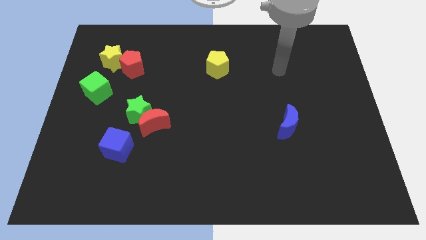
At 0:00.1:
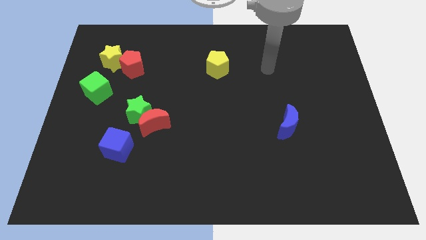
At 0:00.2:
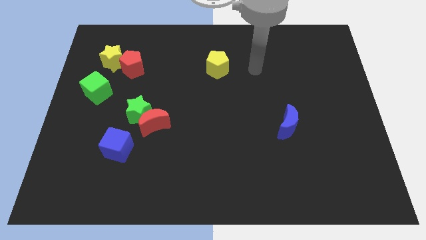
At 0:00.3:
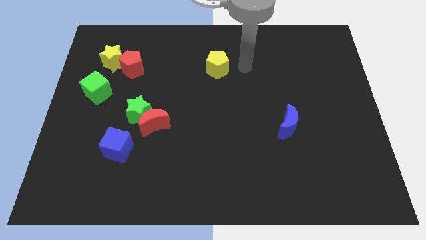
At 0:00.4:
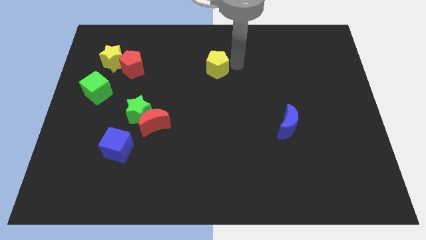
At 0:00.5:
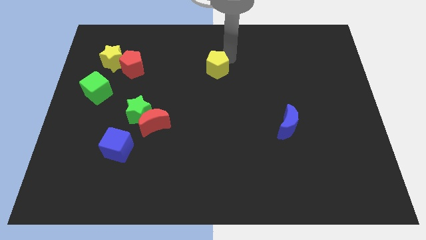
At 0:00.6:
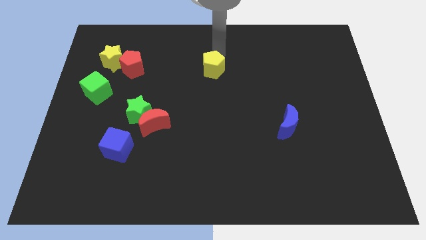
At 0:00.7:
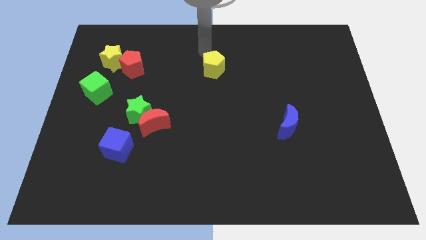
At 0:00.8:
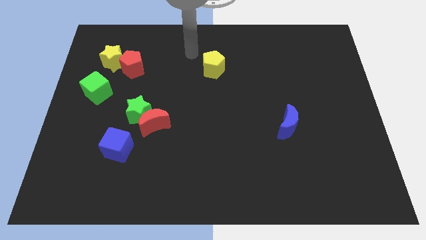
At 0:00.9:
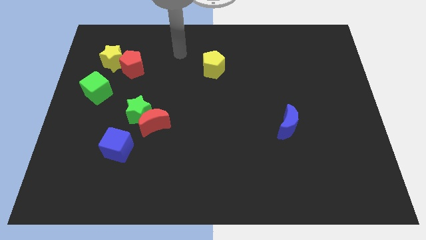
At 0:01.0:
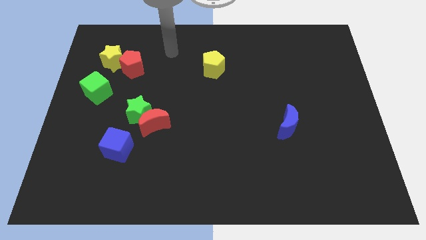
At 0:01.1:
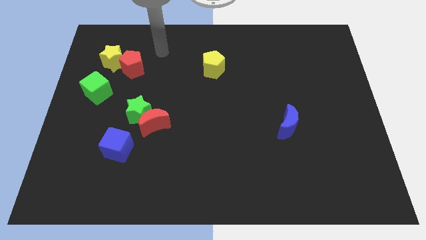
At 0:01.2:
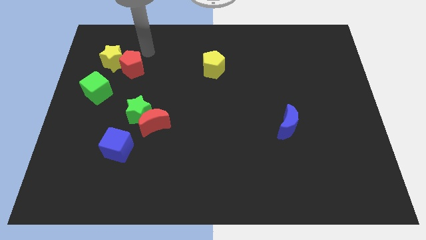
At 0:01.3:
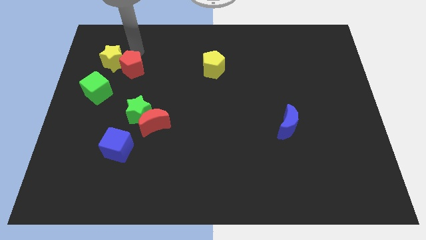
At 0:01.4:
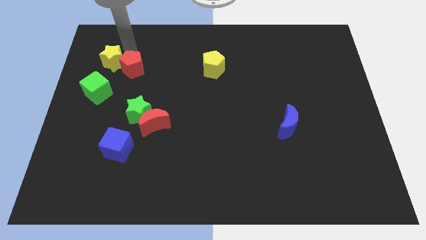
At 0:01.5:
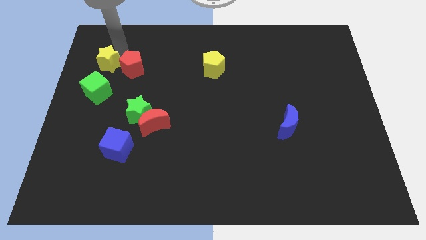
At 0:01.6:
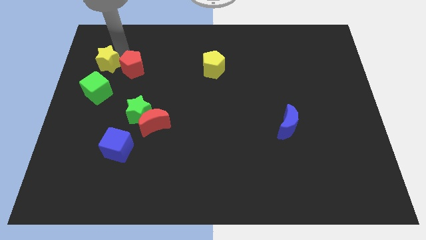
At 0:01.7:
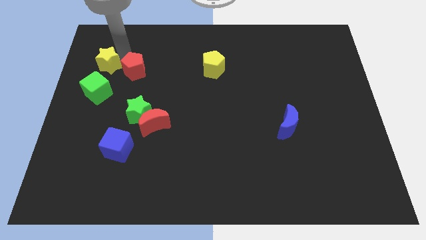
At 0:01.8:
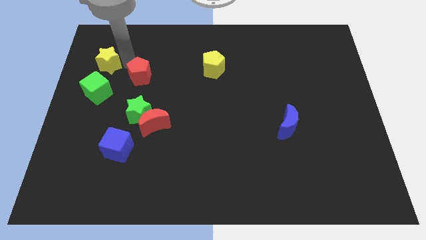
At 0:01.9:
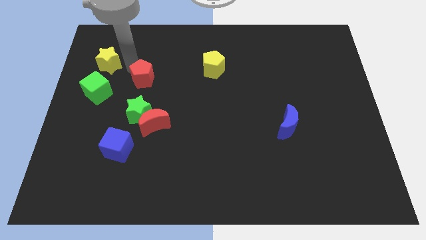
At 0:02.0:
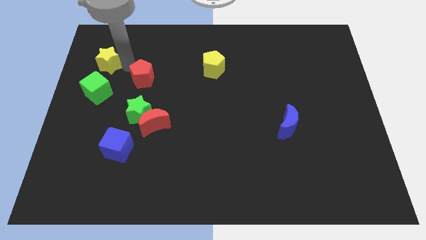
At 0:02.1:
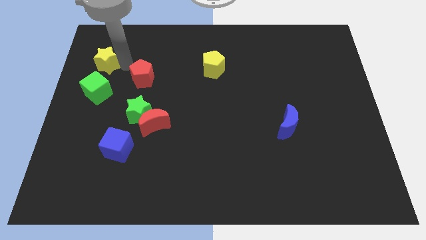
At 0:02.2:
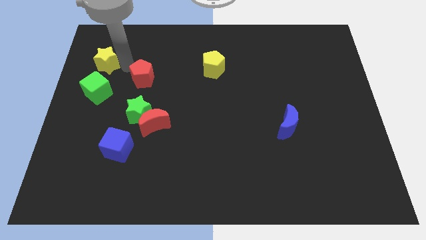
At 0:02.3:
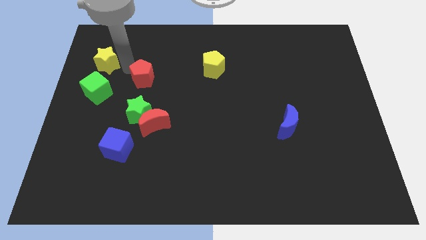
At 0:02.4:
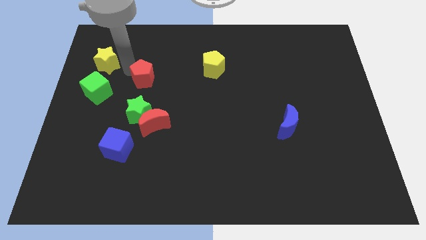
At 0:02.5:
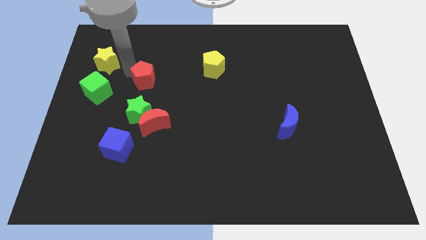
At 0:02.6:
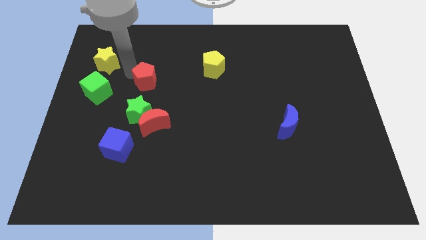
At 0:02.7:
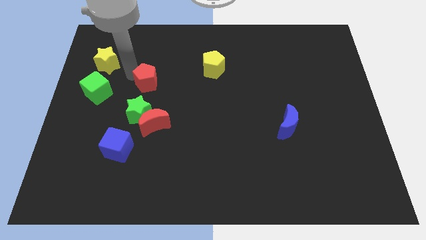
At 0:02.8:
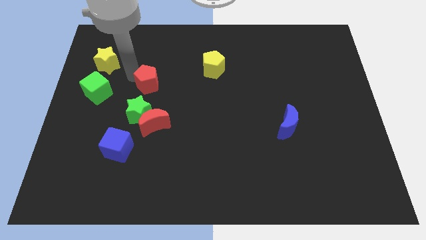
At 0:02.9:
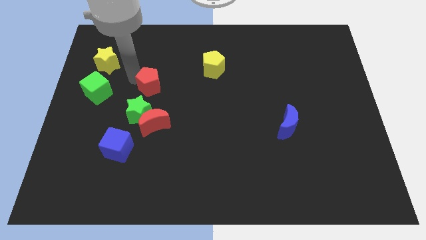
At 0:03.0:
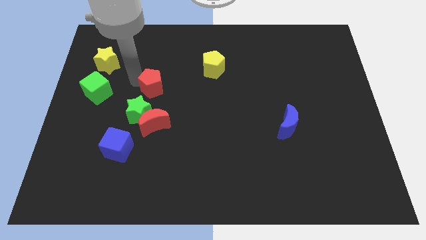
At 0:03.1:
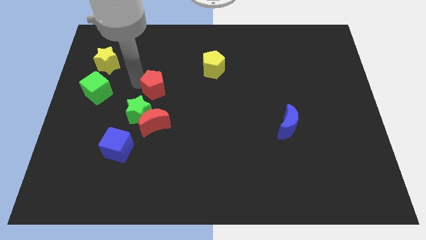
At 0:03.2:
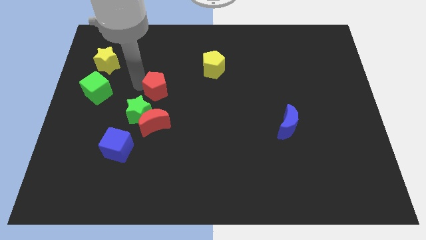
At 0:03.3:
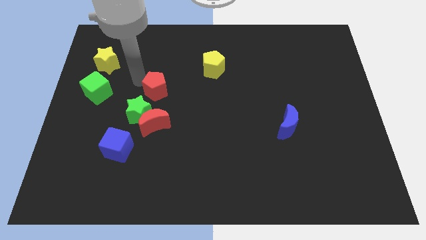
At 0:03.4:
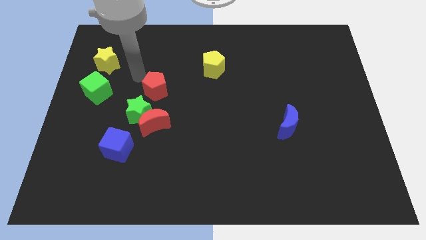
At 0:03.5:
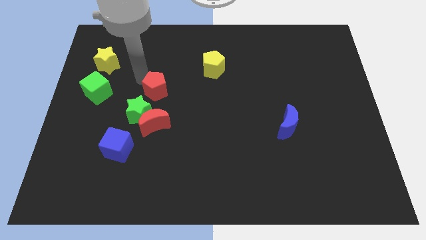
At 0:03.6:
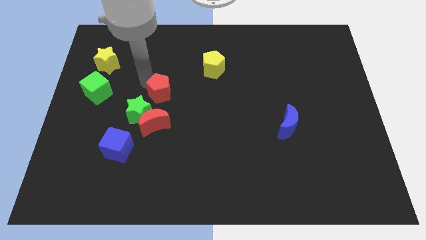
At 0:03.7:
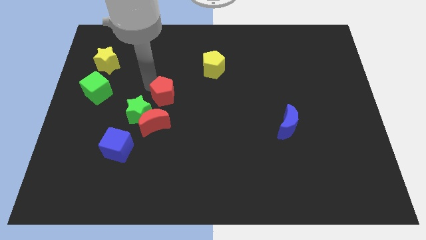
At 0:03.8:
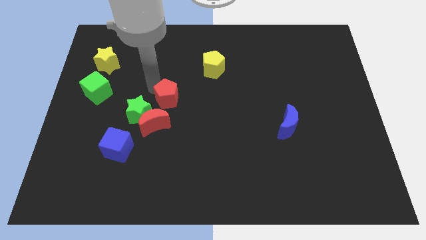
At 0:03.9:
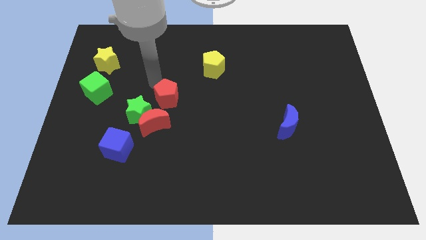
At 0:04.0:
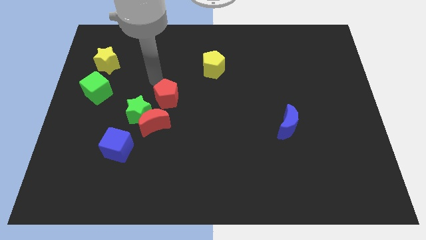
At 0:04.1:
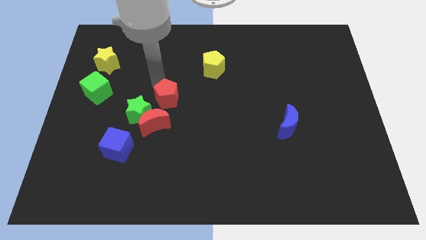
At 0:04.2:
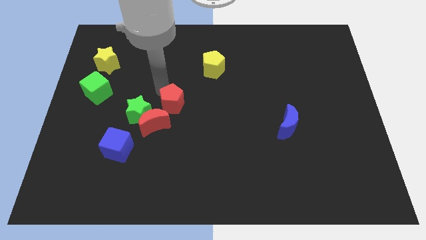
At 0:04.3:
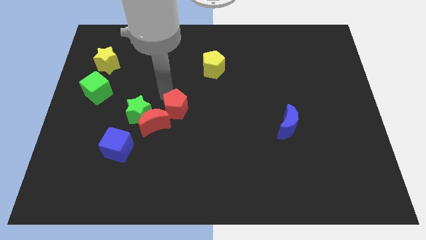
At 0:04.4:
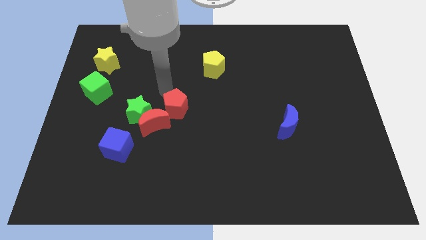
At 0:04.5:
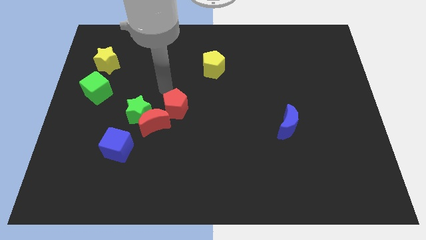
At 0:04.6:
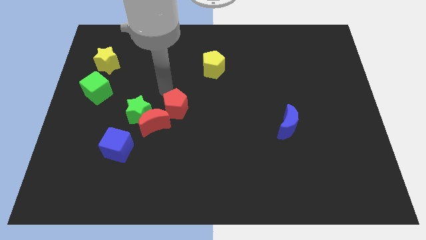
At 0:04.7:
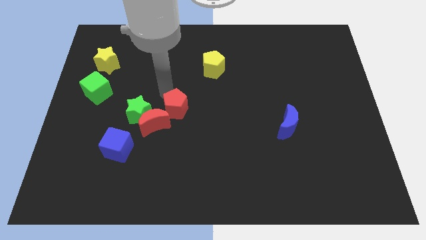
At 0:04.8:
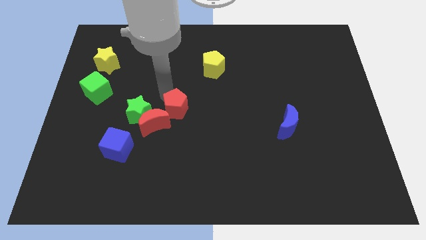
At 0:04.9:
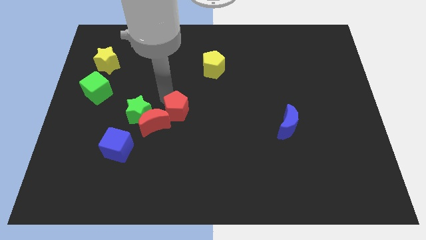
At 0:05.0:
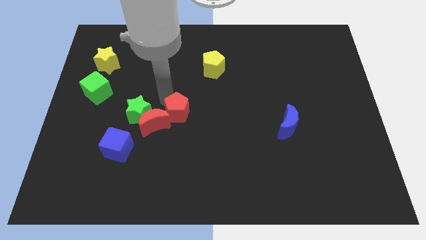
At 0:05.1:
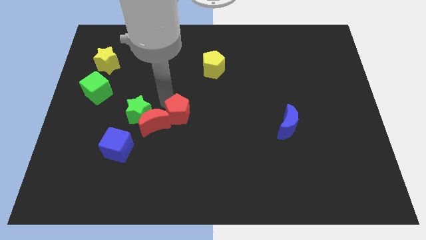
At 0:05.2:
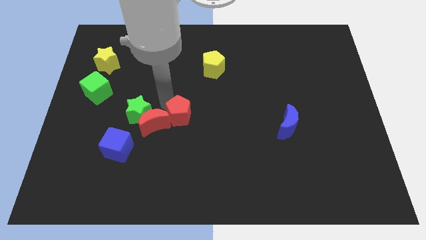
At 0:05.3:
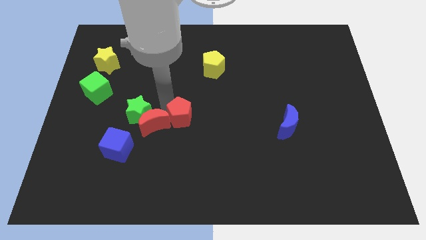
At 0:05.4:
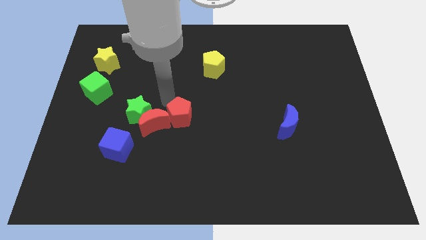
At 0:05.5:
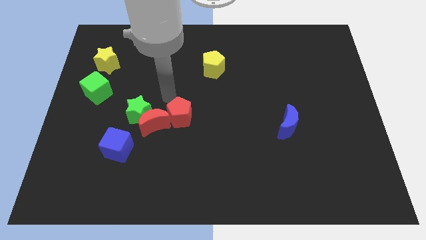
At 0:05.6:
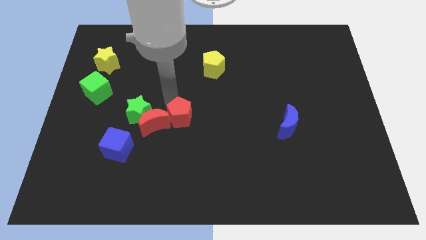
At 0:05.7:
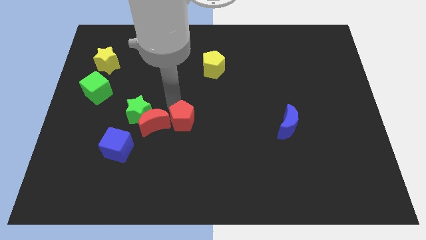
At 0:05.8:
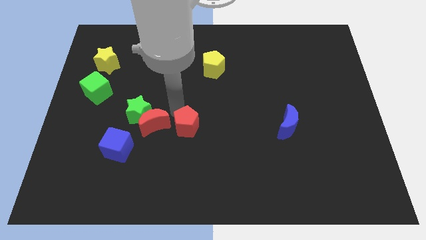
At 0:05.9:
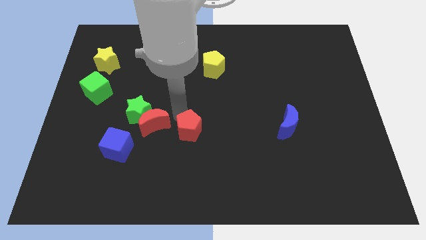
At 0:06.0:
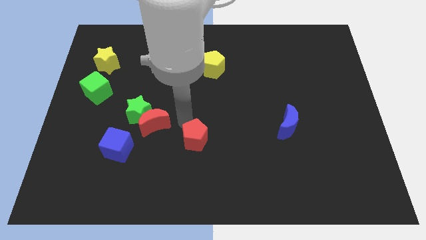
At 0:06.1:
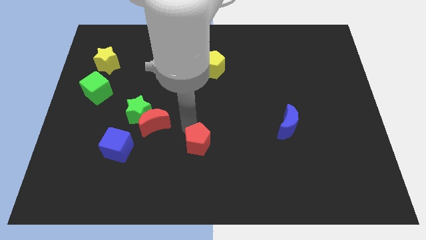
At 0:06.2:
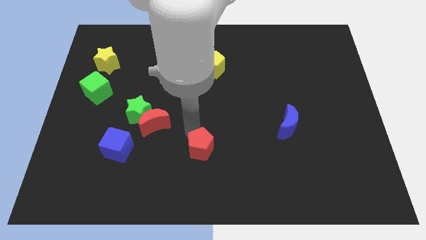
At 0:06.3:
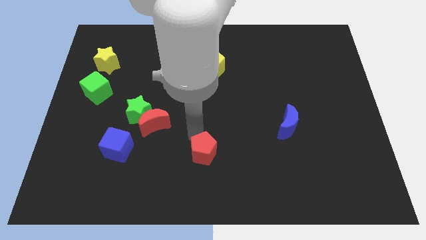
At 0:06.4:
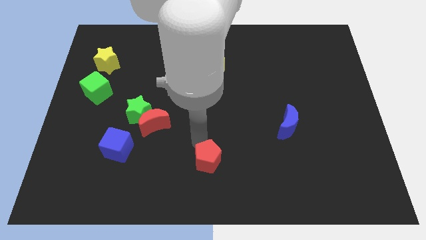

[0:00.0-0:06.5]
move the red pentagon to the bottom

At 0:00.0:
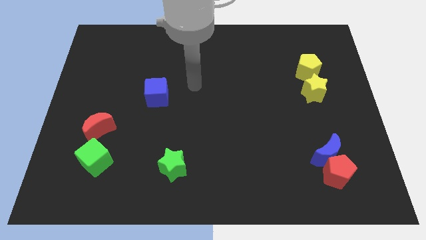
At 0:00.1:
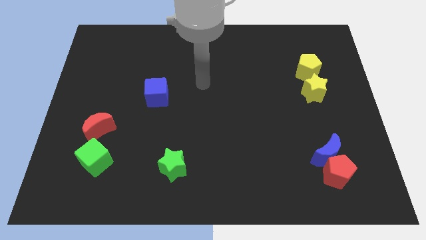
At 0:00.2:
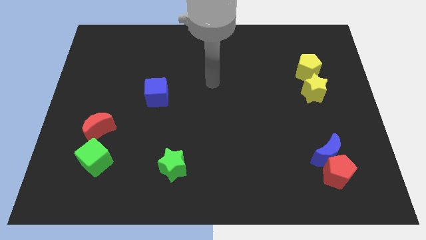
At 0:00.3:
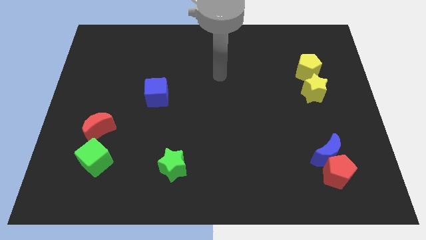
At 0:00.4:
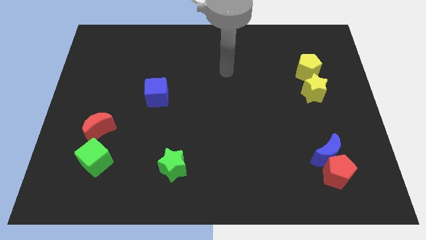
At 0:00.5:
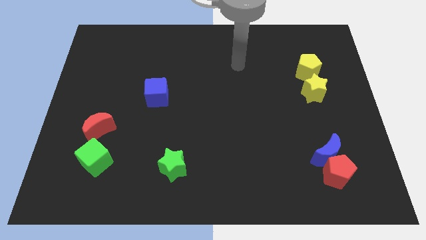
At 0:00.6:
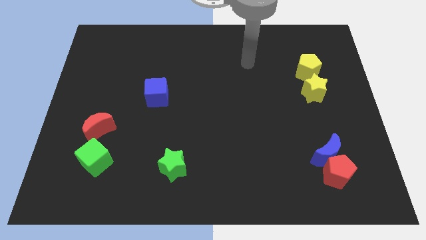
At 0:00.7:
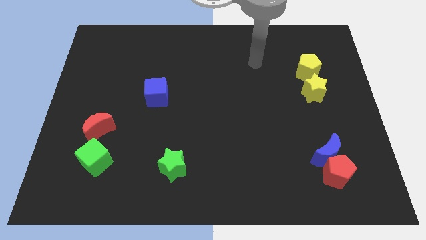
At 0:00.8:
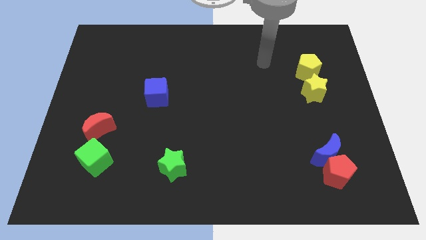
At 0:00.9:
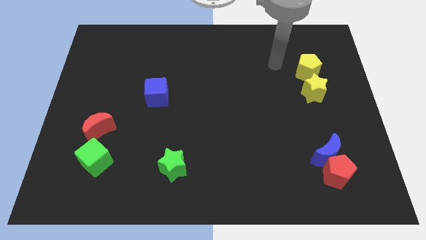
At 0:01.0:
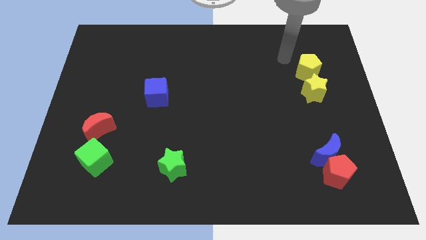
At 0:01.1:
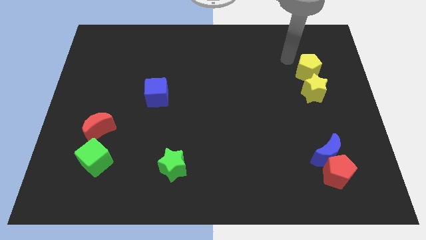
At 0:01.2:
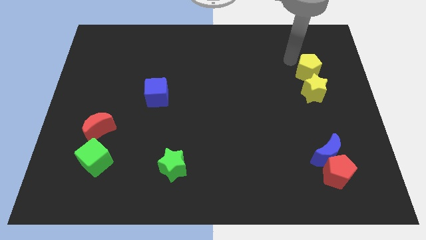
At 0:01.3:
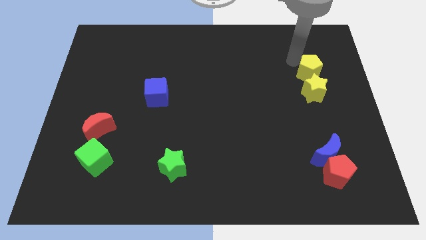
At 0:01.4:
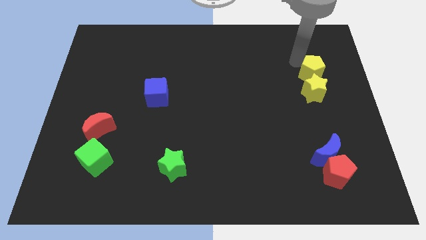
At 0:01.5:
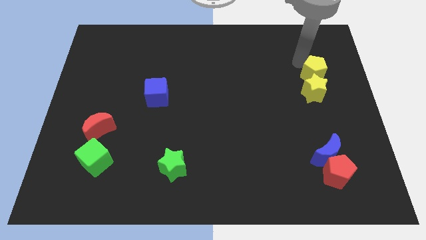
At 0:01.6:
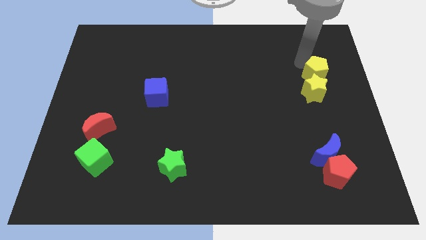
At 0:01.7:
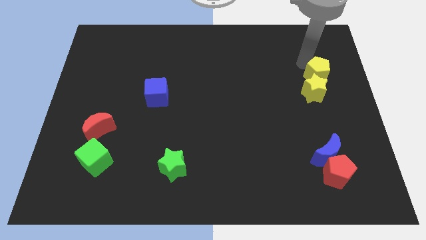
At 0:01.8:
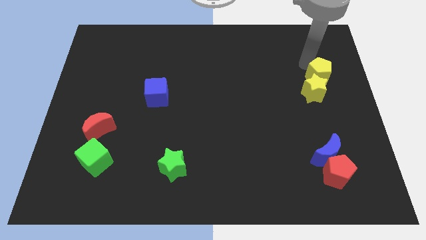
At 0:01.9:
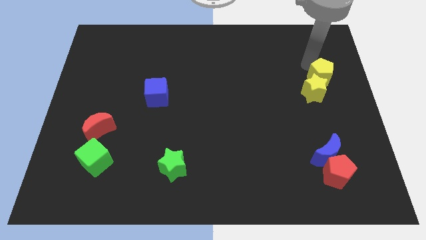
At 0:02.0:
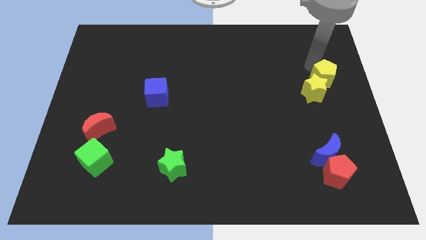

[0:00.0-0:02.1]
slide the yellow pentagon to the center right
